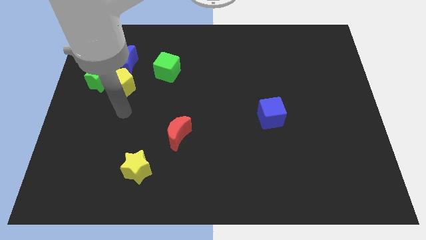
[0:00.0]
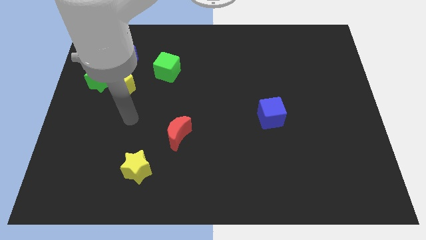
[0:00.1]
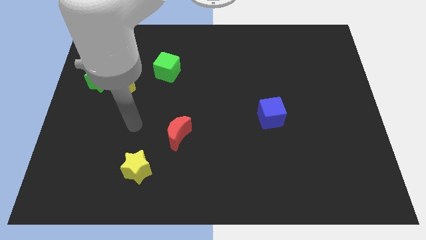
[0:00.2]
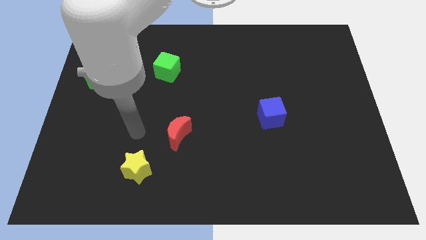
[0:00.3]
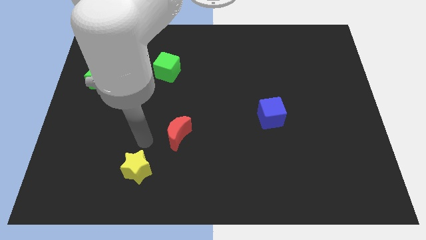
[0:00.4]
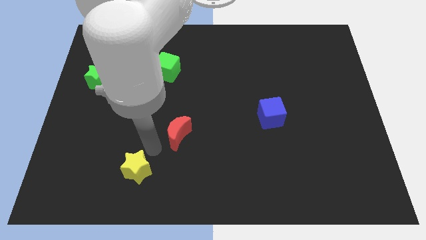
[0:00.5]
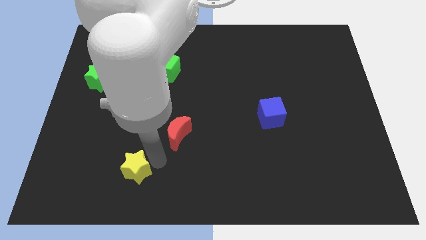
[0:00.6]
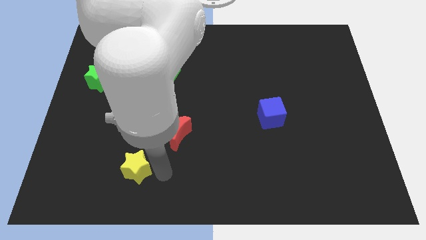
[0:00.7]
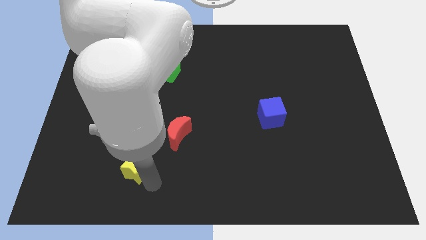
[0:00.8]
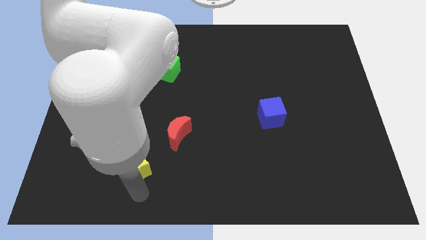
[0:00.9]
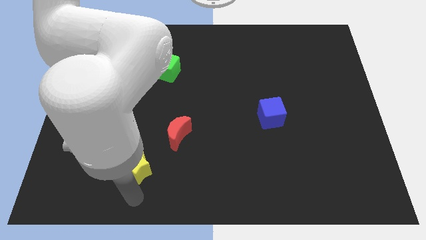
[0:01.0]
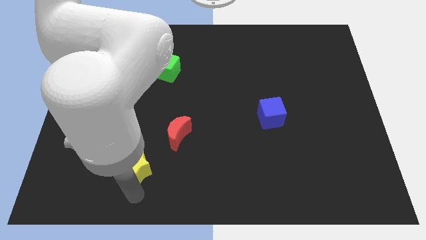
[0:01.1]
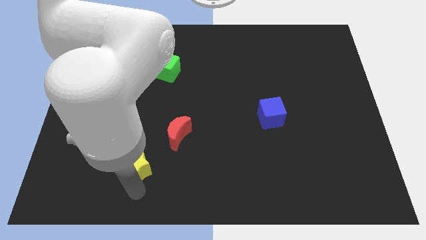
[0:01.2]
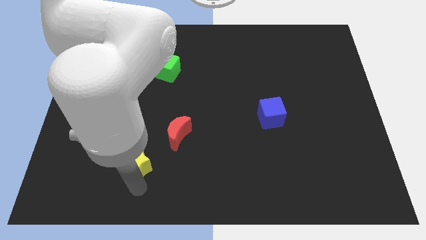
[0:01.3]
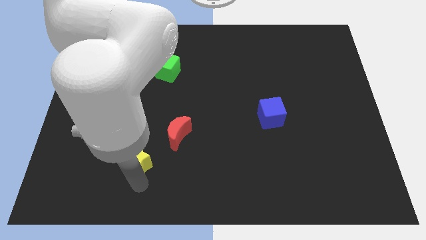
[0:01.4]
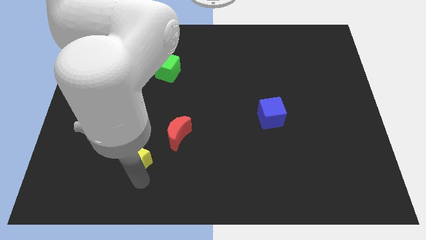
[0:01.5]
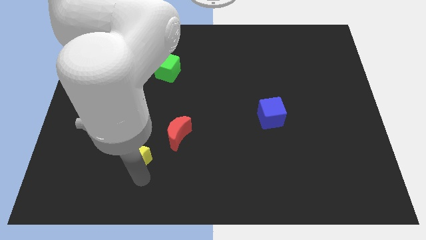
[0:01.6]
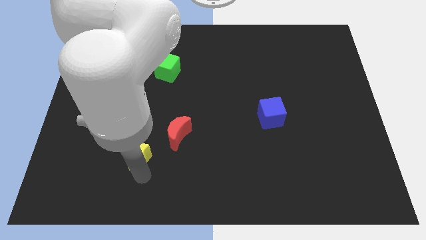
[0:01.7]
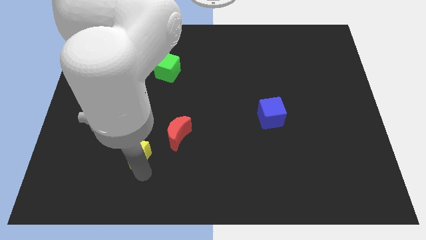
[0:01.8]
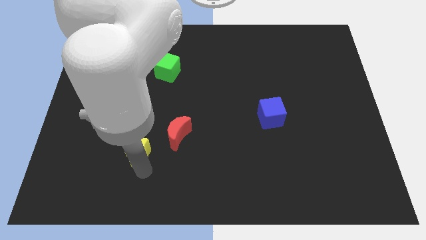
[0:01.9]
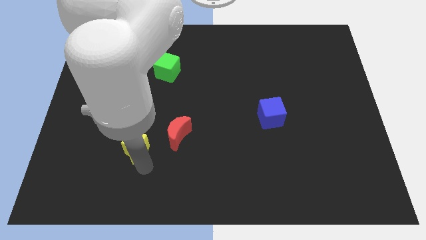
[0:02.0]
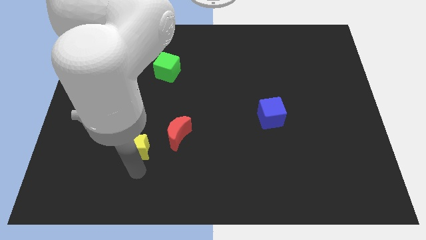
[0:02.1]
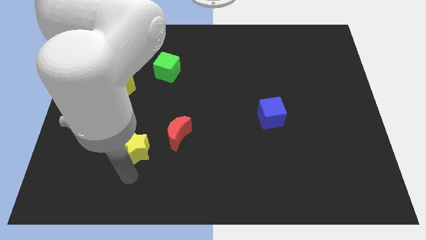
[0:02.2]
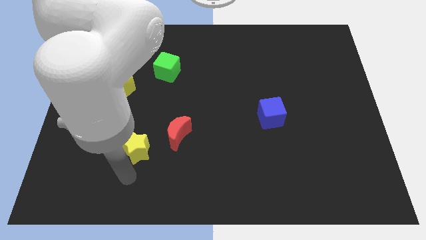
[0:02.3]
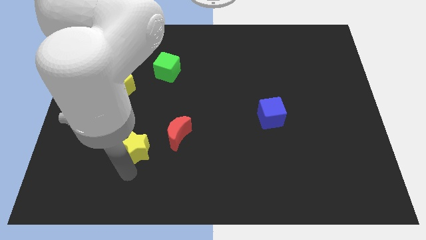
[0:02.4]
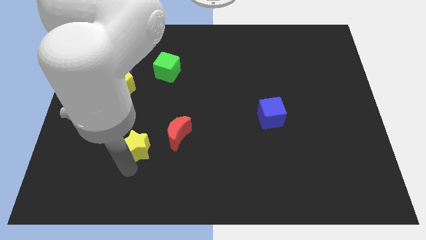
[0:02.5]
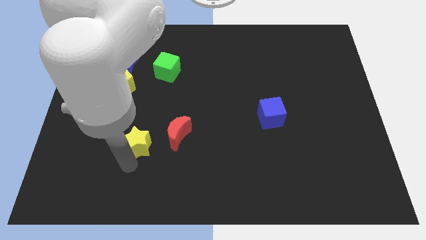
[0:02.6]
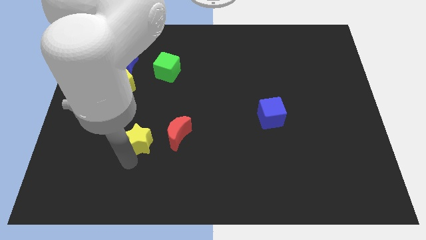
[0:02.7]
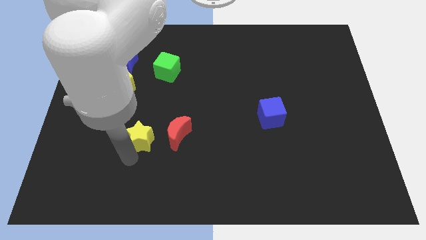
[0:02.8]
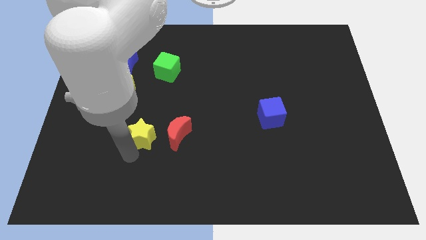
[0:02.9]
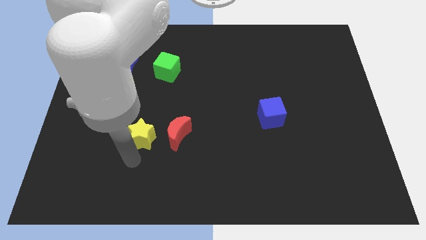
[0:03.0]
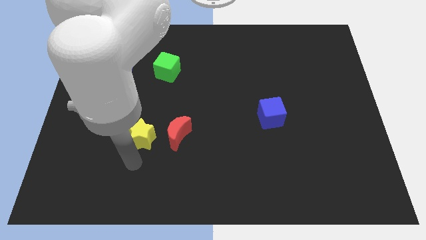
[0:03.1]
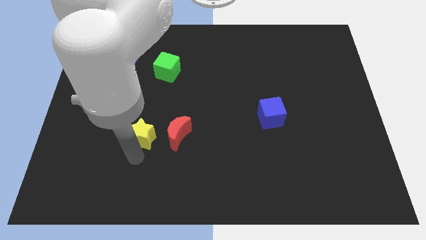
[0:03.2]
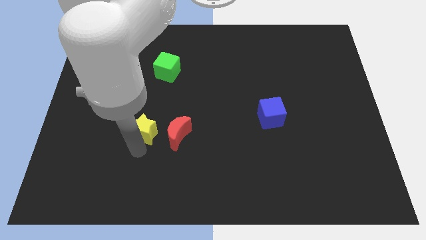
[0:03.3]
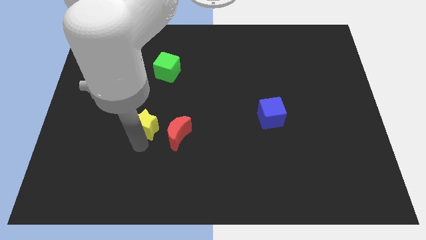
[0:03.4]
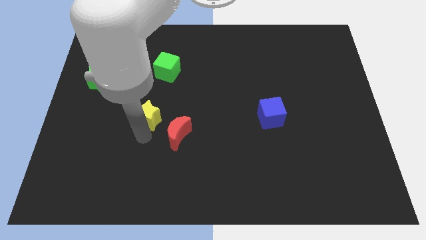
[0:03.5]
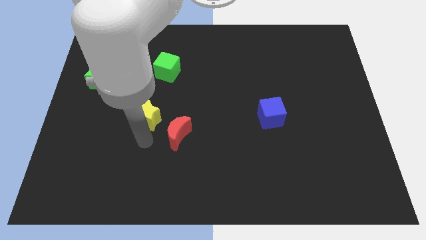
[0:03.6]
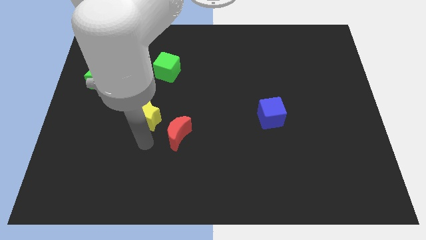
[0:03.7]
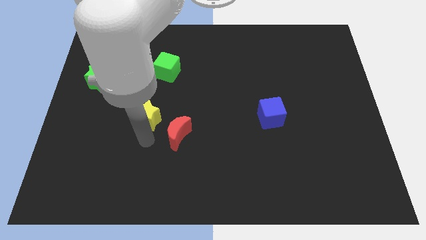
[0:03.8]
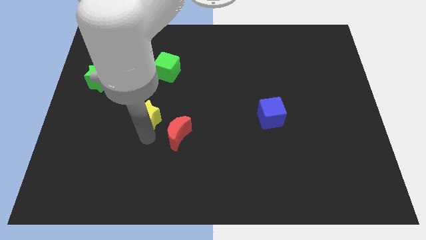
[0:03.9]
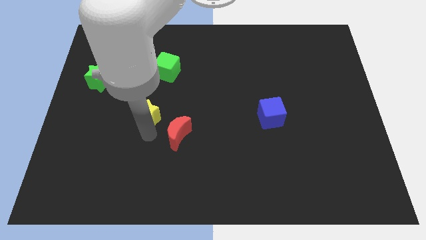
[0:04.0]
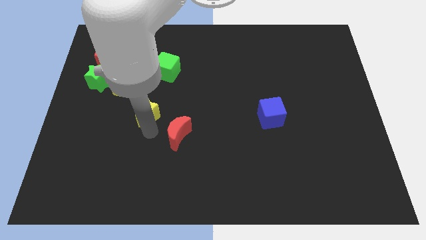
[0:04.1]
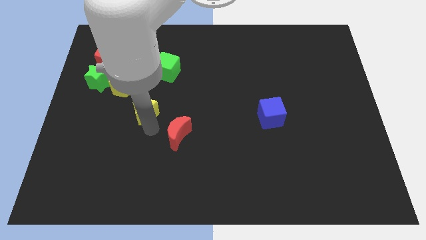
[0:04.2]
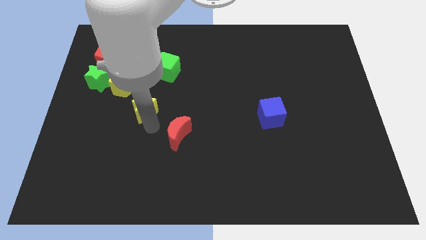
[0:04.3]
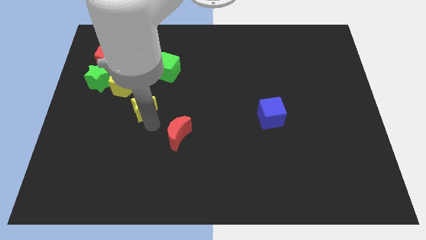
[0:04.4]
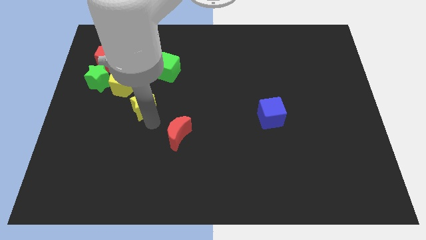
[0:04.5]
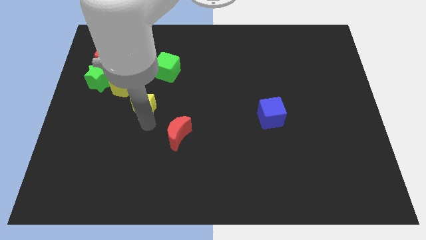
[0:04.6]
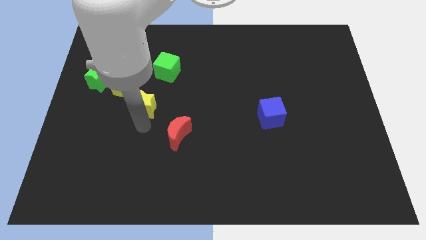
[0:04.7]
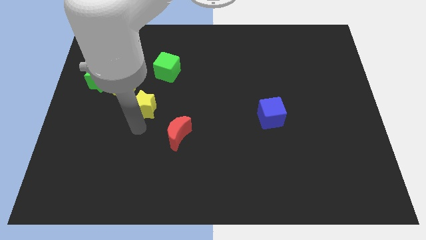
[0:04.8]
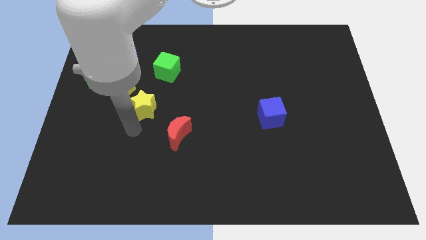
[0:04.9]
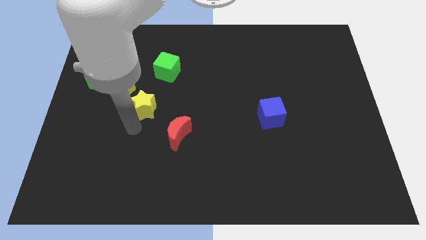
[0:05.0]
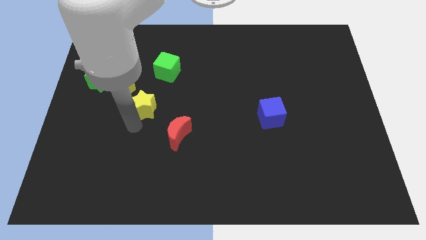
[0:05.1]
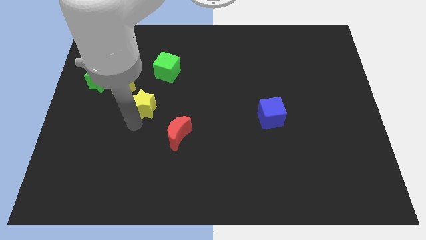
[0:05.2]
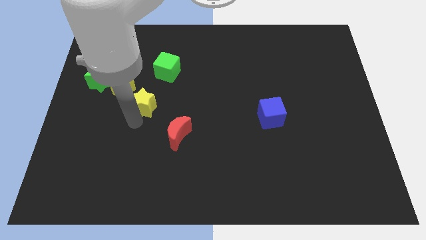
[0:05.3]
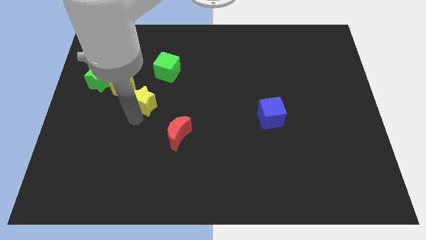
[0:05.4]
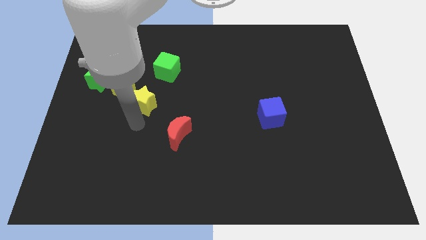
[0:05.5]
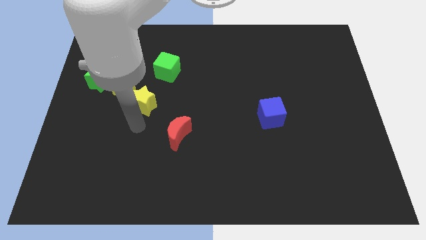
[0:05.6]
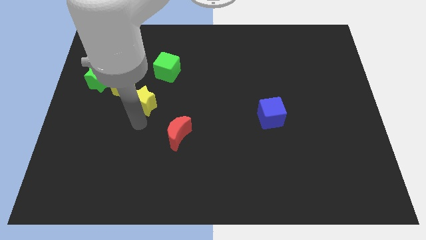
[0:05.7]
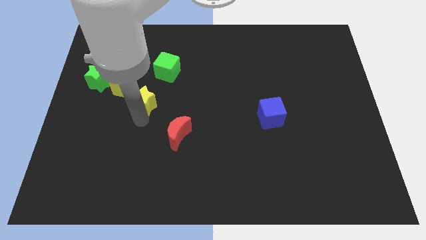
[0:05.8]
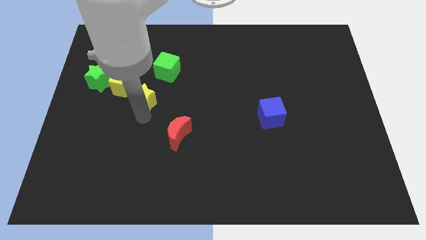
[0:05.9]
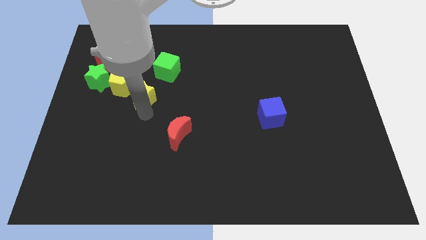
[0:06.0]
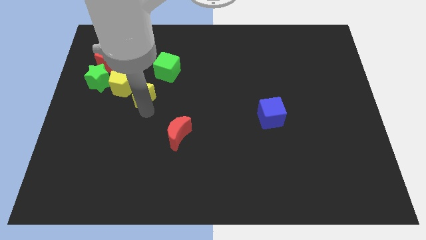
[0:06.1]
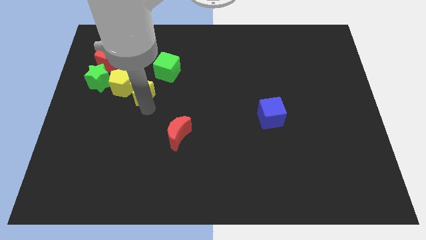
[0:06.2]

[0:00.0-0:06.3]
move the yellow star upwards

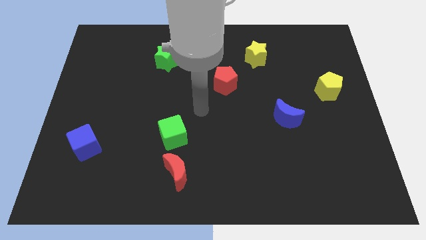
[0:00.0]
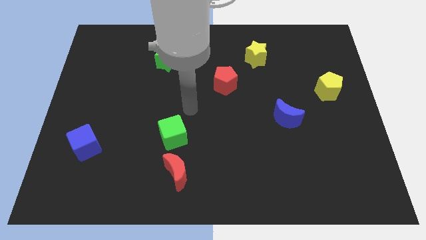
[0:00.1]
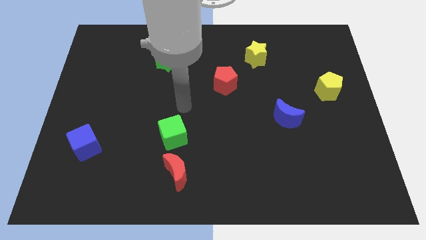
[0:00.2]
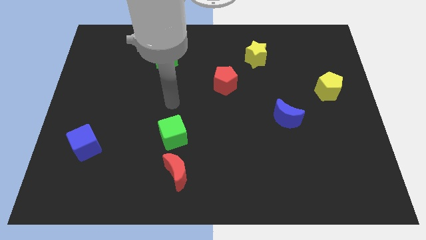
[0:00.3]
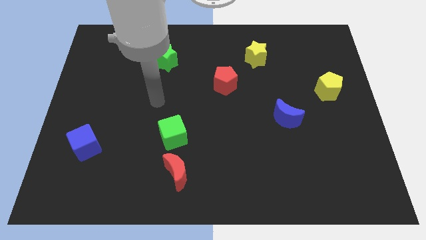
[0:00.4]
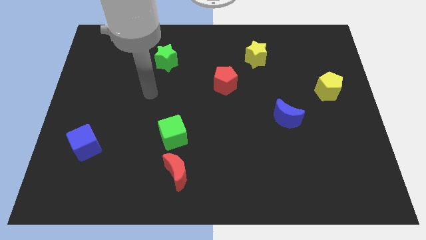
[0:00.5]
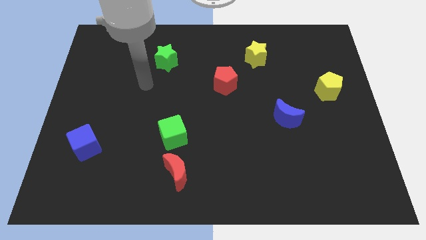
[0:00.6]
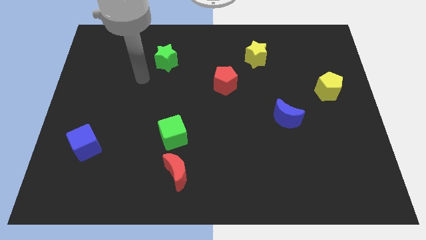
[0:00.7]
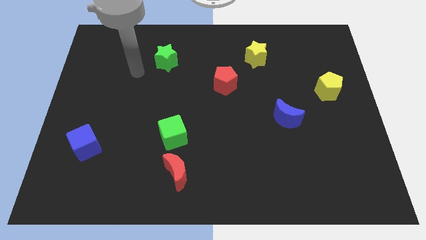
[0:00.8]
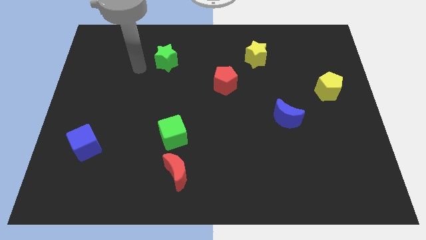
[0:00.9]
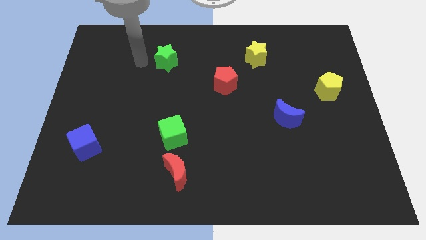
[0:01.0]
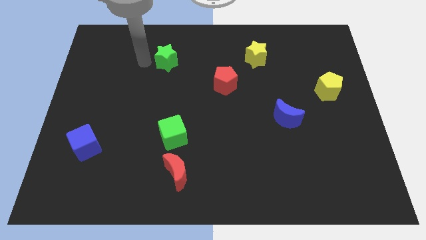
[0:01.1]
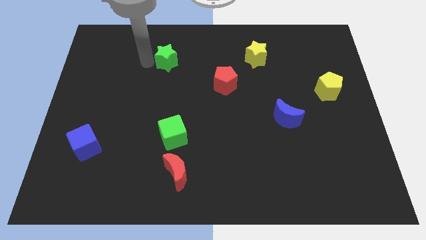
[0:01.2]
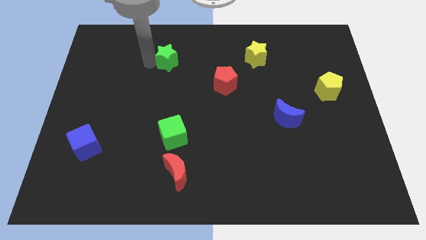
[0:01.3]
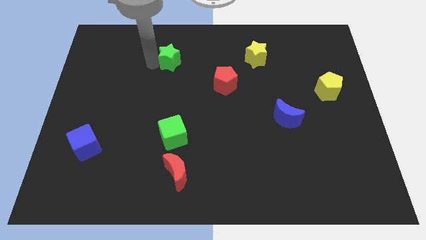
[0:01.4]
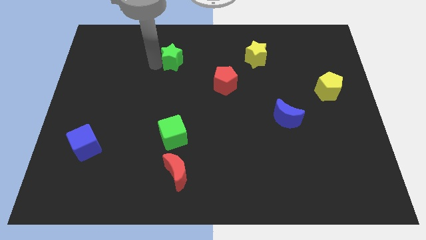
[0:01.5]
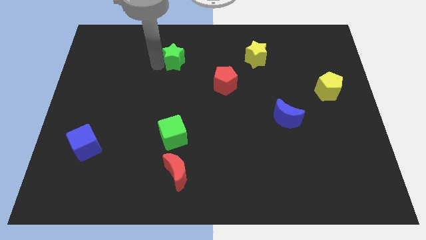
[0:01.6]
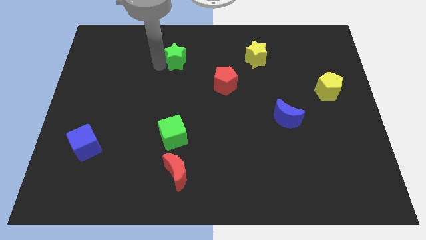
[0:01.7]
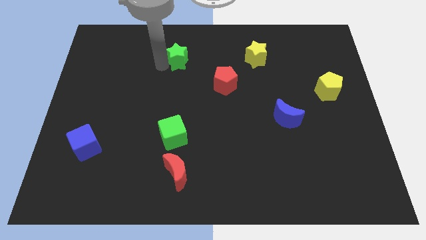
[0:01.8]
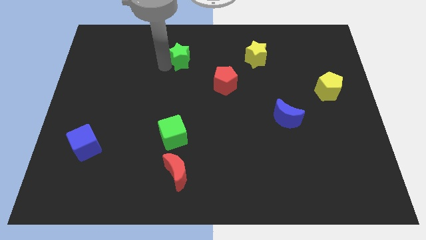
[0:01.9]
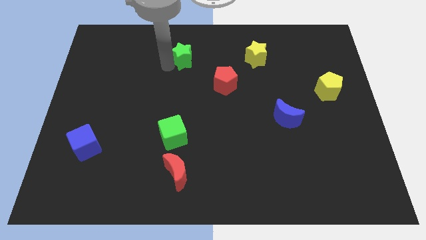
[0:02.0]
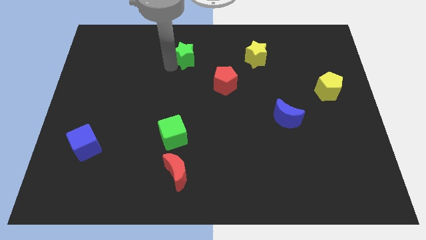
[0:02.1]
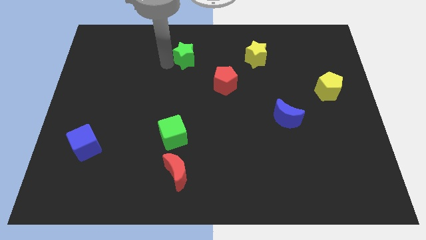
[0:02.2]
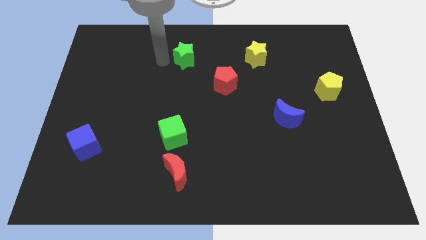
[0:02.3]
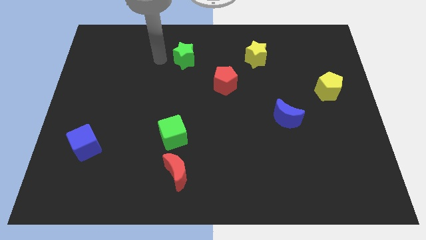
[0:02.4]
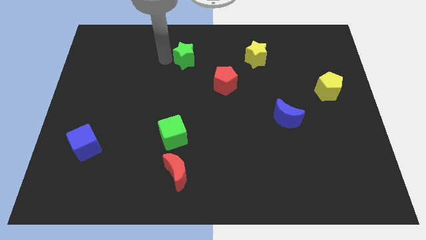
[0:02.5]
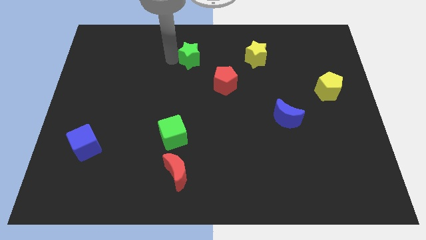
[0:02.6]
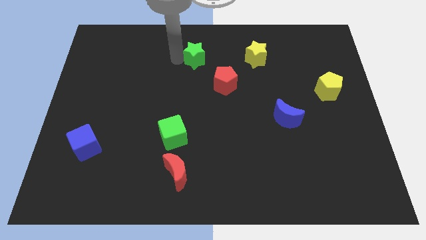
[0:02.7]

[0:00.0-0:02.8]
move the green star a little right
